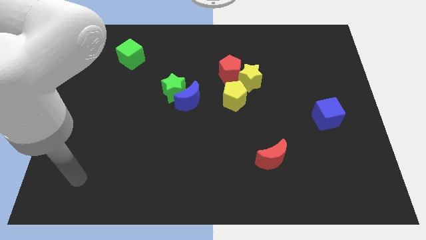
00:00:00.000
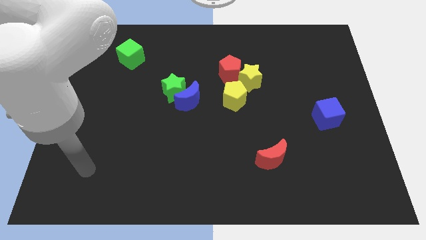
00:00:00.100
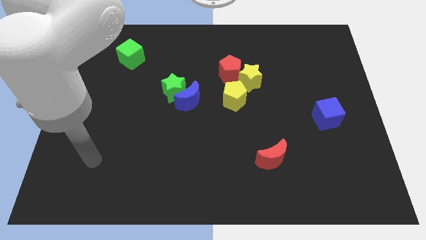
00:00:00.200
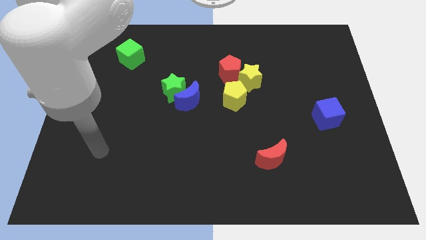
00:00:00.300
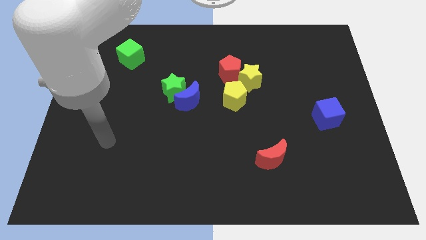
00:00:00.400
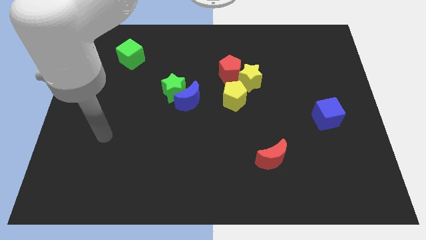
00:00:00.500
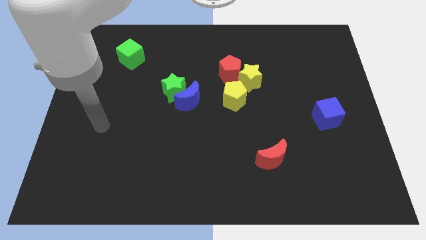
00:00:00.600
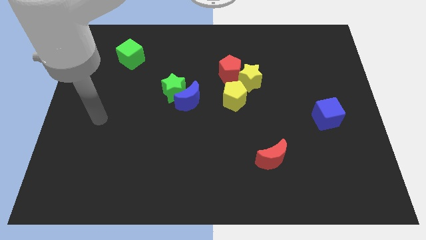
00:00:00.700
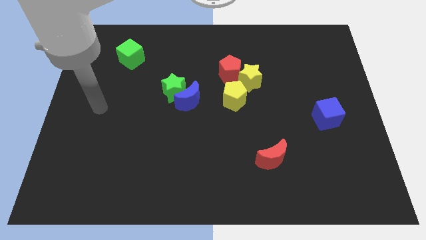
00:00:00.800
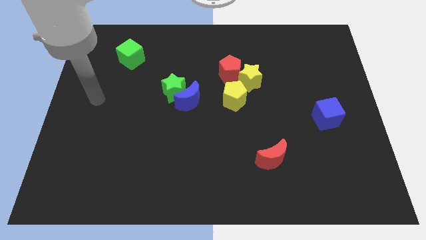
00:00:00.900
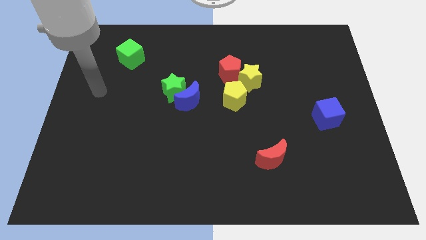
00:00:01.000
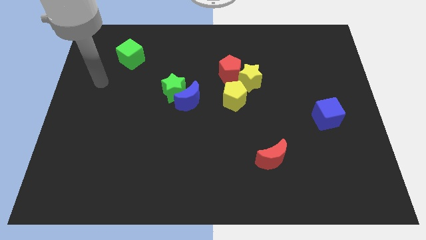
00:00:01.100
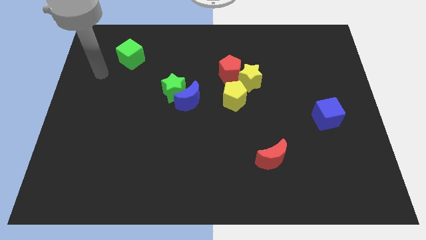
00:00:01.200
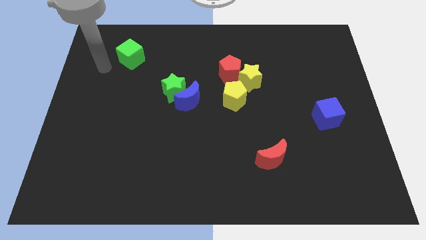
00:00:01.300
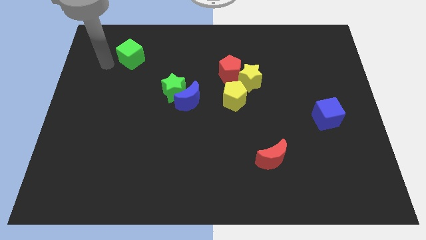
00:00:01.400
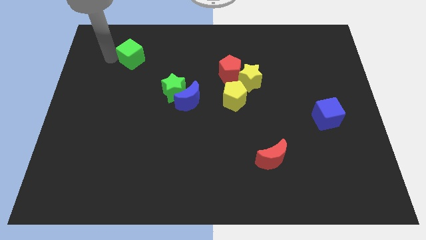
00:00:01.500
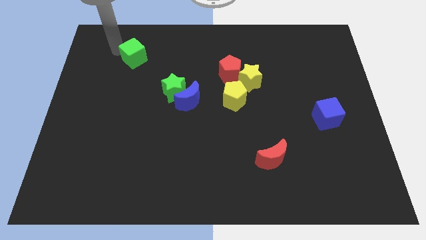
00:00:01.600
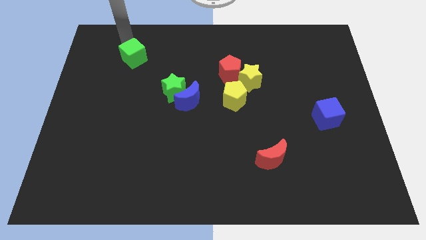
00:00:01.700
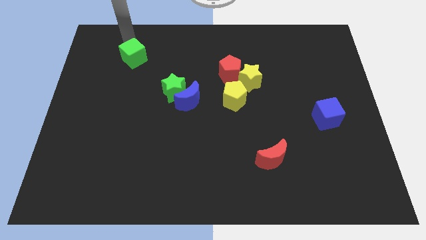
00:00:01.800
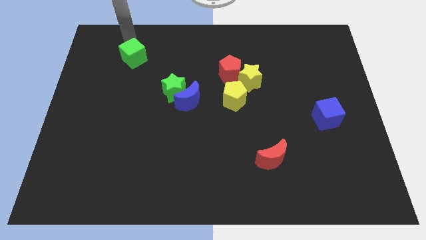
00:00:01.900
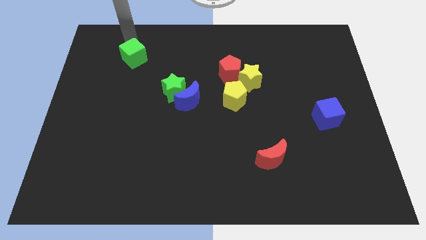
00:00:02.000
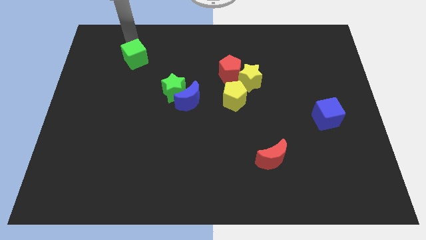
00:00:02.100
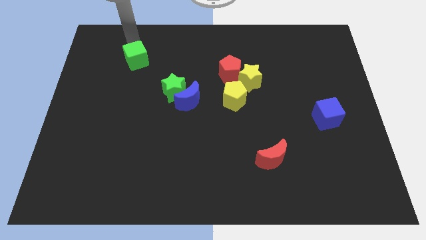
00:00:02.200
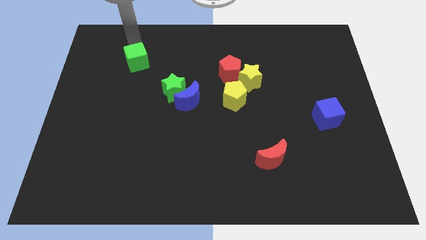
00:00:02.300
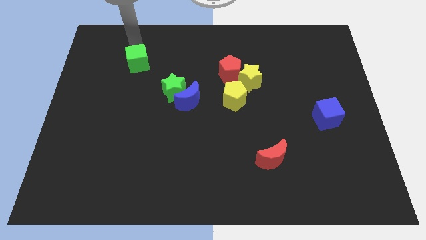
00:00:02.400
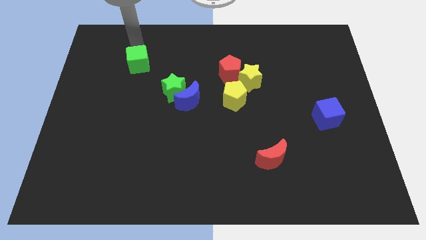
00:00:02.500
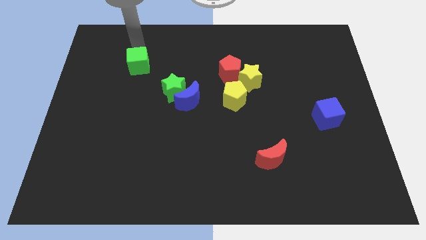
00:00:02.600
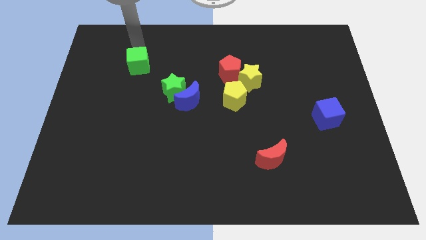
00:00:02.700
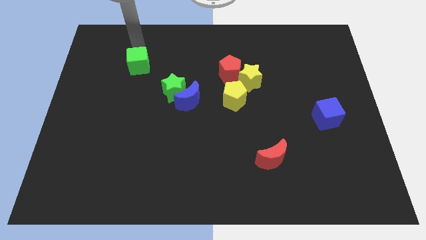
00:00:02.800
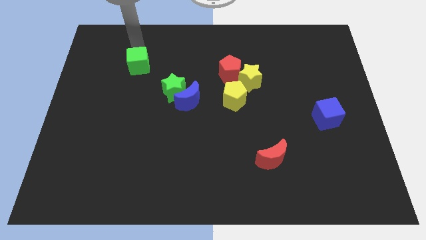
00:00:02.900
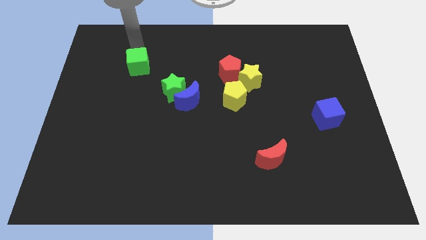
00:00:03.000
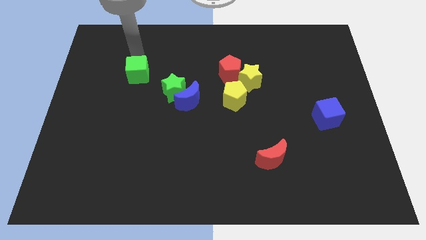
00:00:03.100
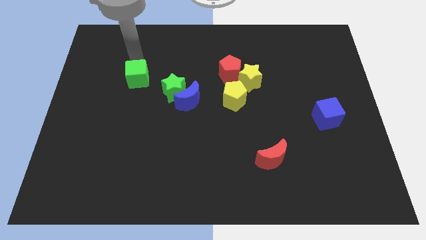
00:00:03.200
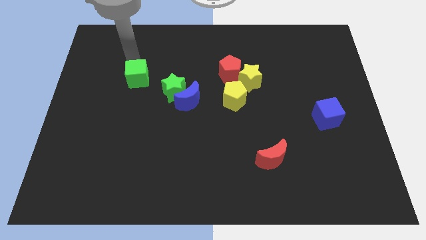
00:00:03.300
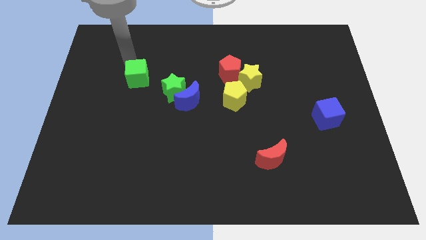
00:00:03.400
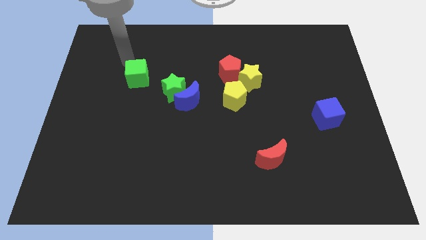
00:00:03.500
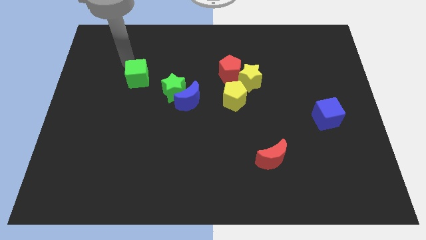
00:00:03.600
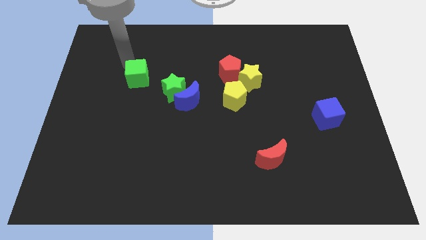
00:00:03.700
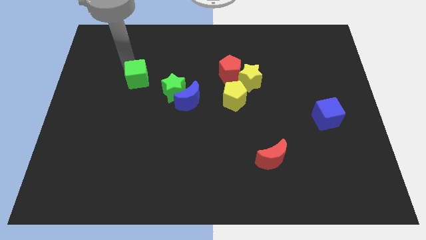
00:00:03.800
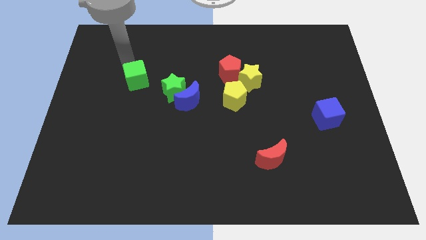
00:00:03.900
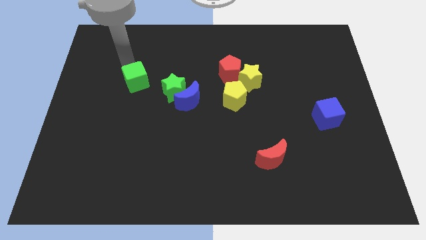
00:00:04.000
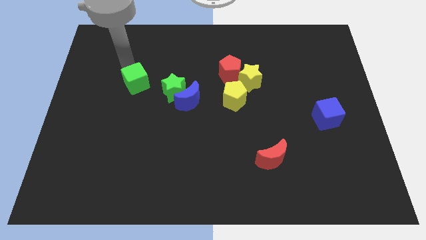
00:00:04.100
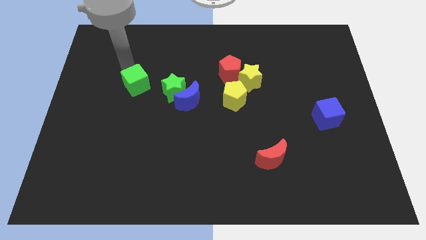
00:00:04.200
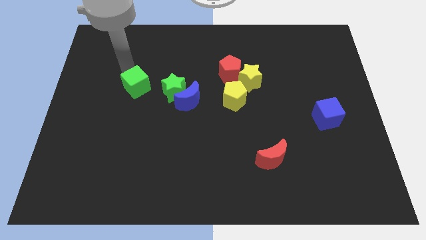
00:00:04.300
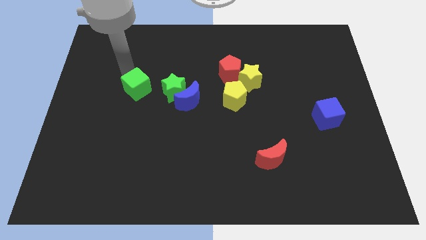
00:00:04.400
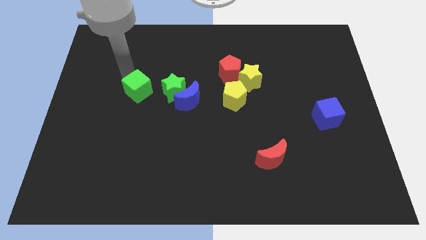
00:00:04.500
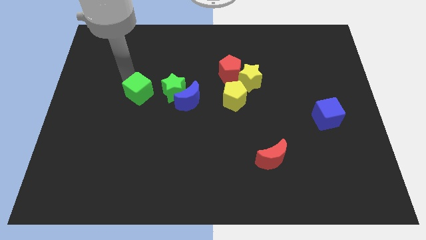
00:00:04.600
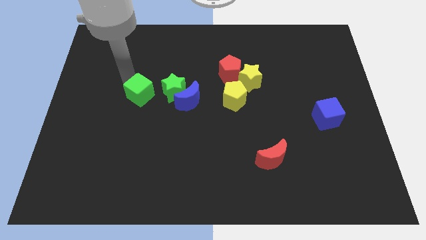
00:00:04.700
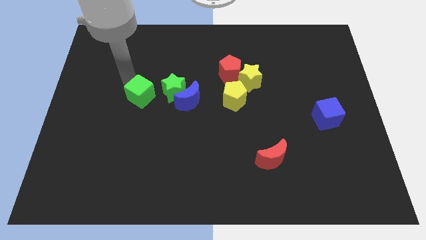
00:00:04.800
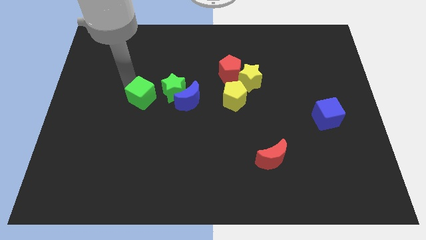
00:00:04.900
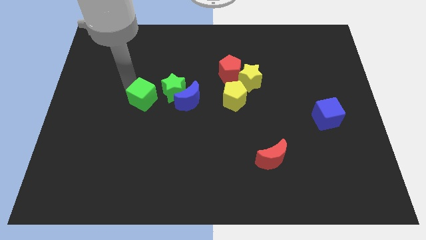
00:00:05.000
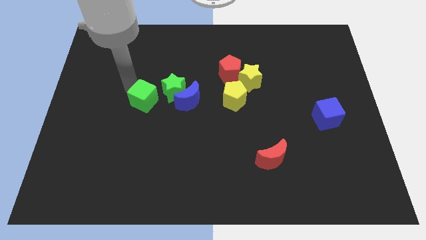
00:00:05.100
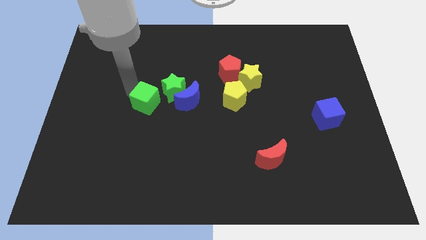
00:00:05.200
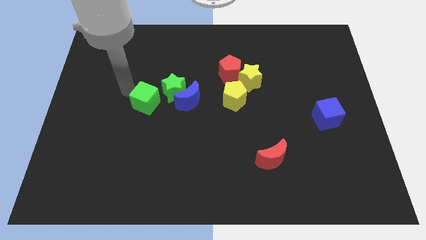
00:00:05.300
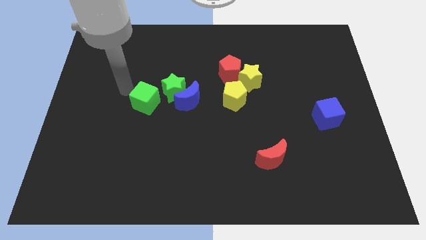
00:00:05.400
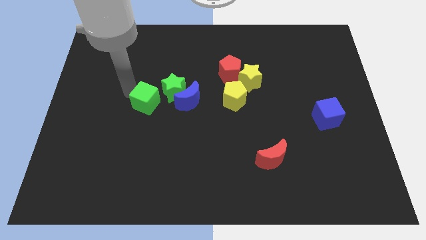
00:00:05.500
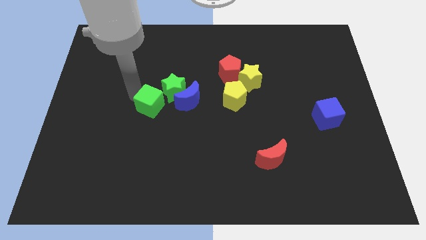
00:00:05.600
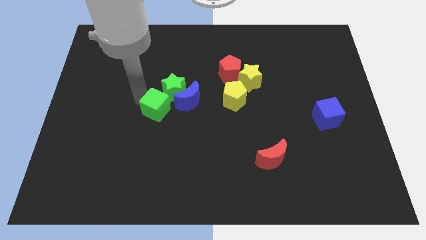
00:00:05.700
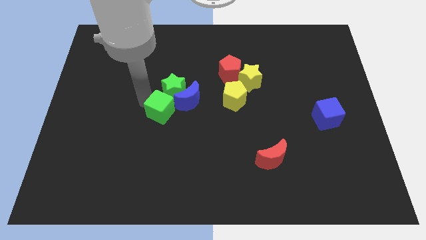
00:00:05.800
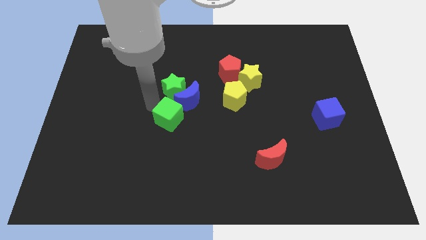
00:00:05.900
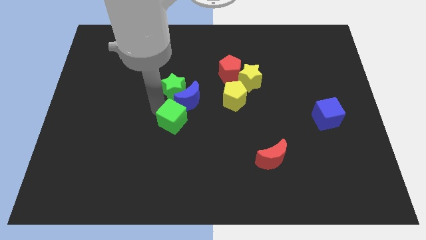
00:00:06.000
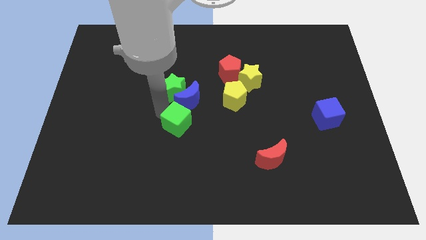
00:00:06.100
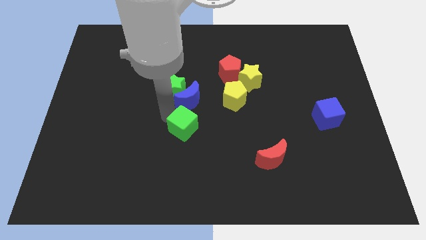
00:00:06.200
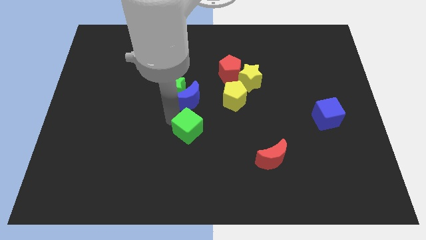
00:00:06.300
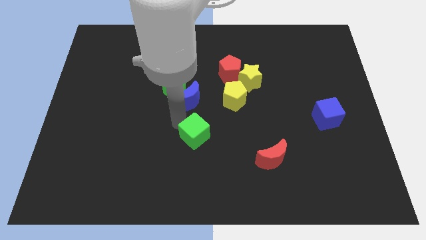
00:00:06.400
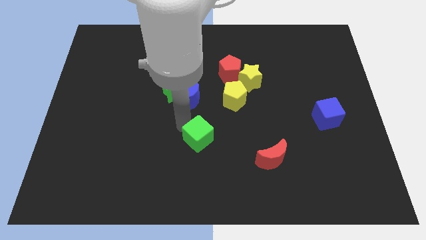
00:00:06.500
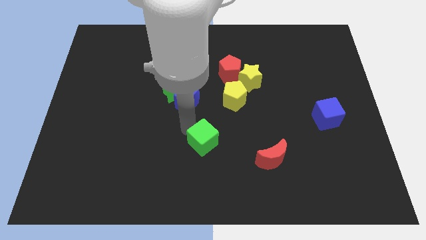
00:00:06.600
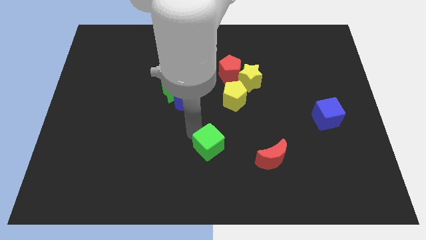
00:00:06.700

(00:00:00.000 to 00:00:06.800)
slide the green cube just left of the red moon

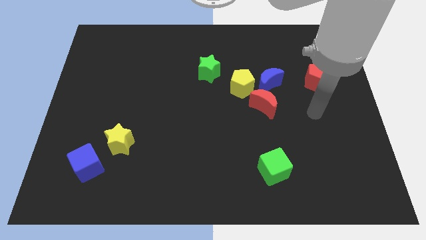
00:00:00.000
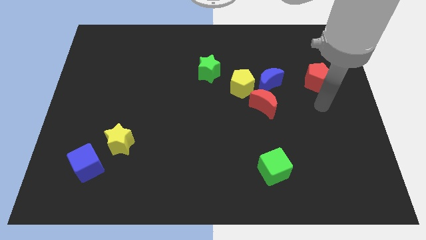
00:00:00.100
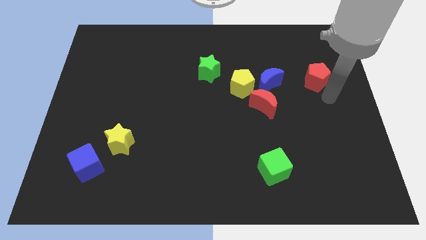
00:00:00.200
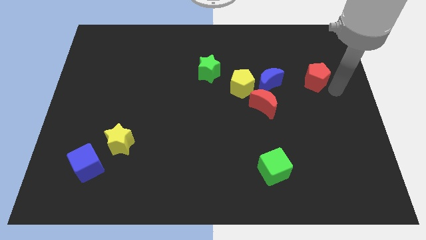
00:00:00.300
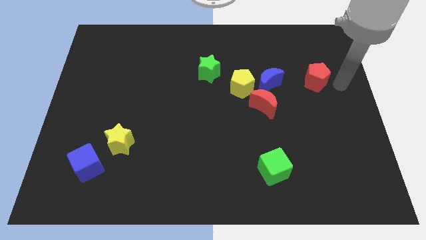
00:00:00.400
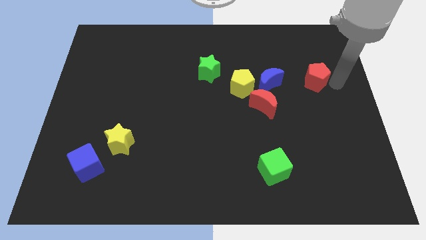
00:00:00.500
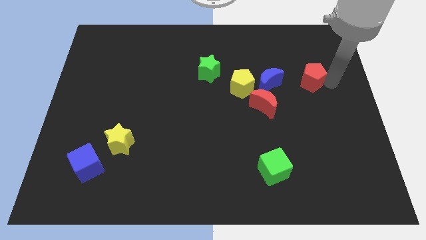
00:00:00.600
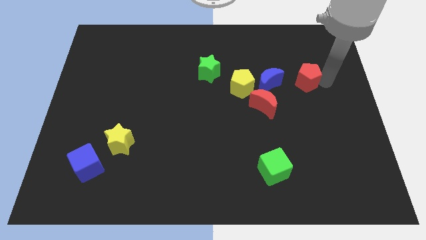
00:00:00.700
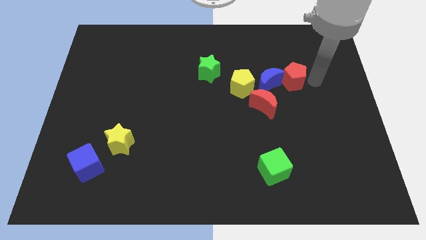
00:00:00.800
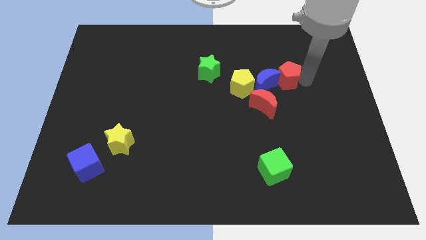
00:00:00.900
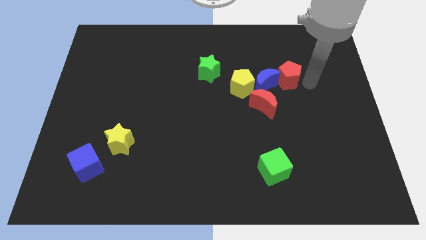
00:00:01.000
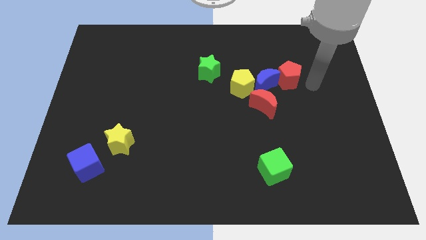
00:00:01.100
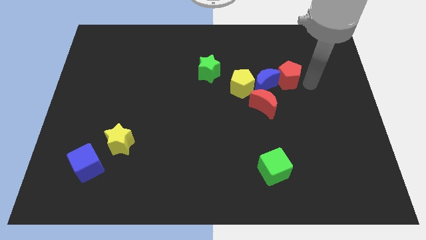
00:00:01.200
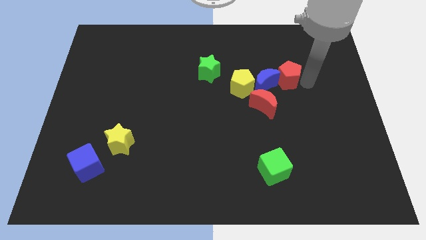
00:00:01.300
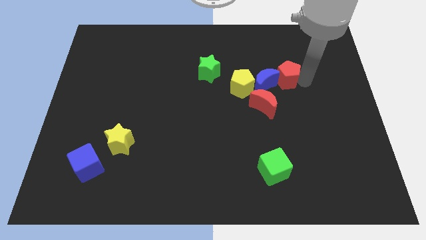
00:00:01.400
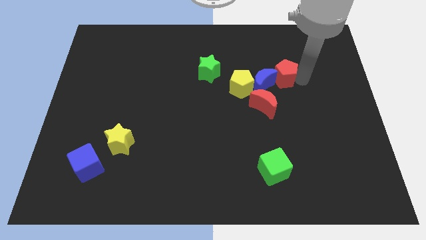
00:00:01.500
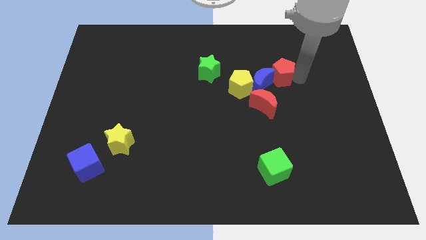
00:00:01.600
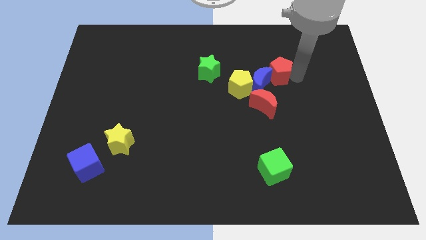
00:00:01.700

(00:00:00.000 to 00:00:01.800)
push the red pentagon diagonally up and to the right of the yellow pentagon
